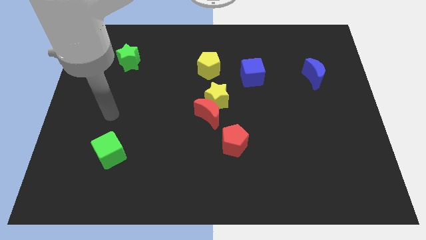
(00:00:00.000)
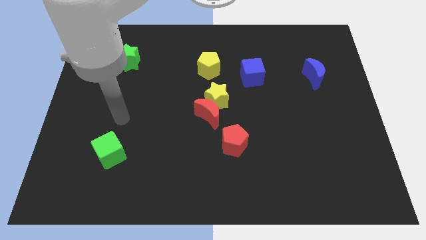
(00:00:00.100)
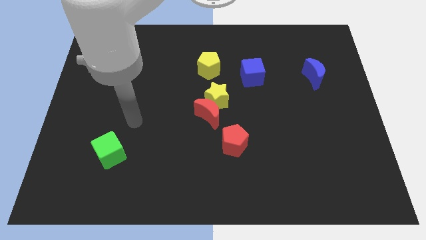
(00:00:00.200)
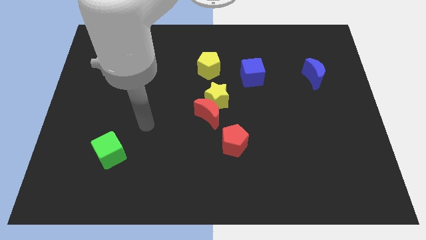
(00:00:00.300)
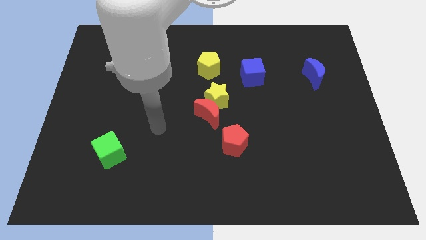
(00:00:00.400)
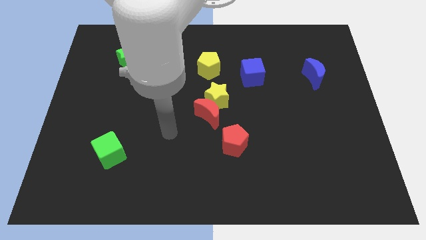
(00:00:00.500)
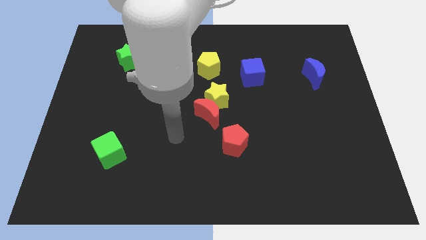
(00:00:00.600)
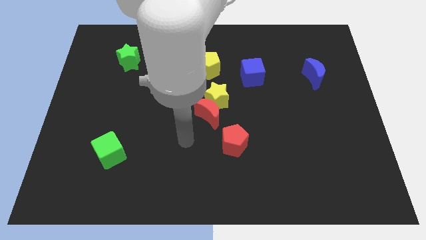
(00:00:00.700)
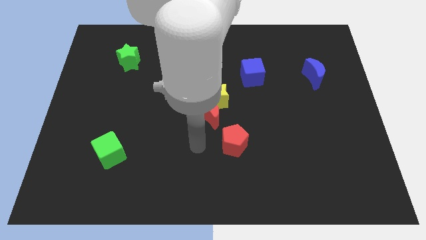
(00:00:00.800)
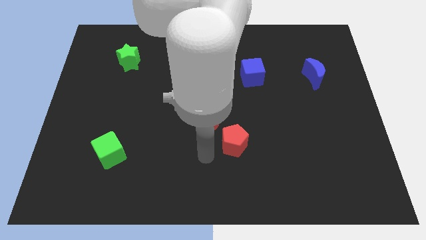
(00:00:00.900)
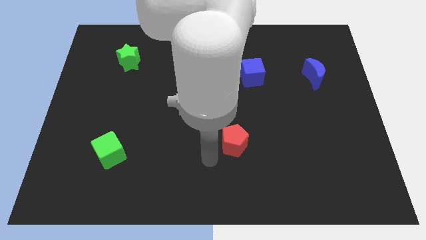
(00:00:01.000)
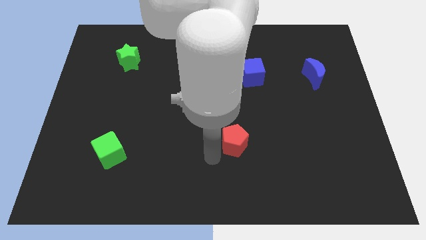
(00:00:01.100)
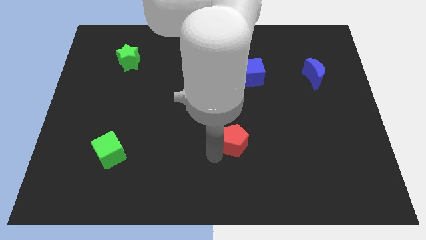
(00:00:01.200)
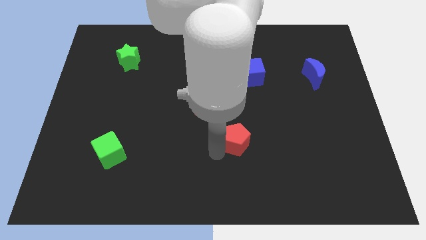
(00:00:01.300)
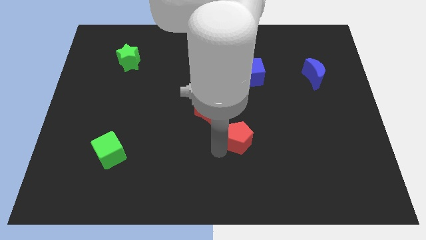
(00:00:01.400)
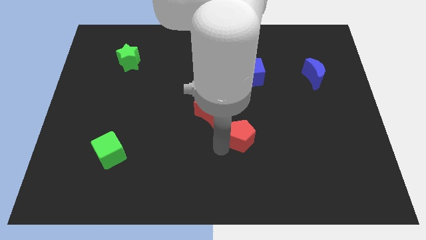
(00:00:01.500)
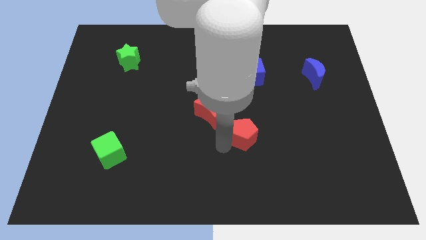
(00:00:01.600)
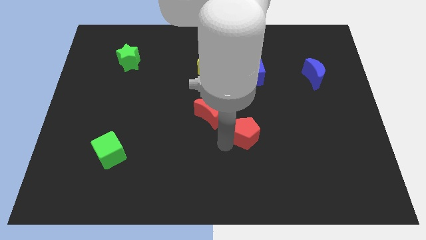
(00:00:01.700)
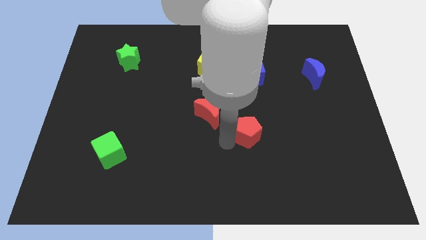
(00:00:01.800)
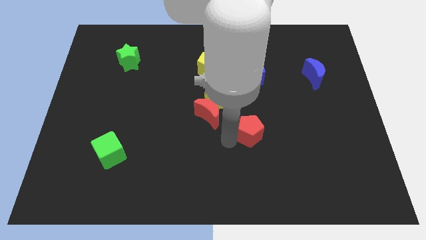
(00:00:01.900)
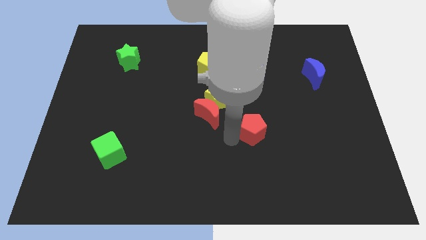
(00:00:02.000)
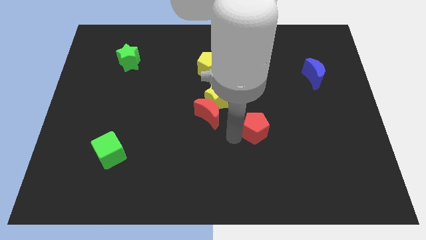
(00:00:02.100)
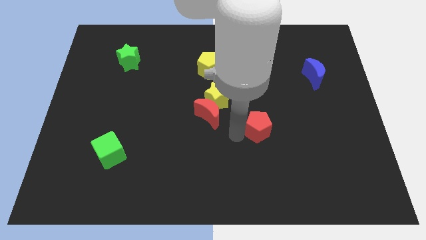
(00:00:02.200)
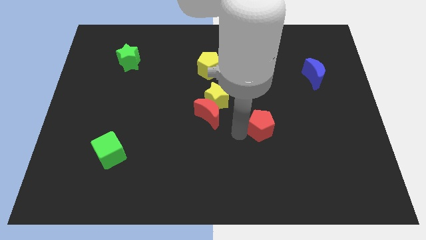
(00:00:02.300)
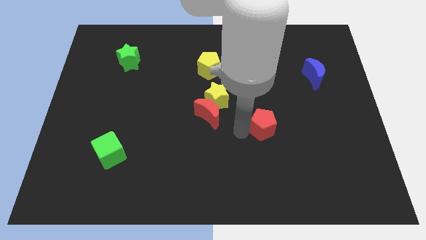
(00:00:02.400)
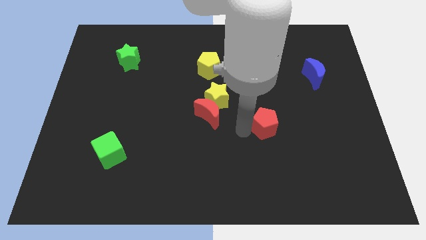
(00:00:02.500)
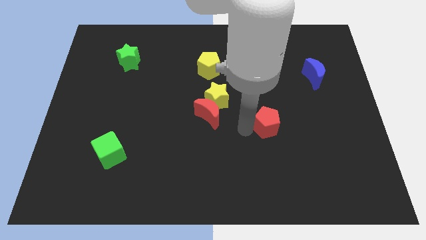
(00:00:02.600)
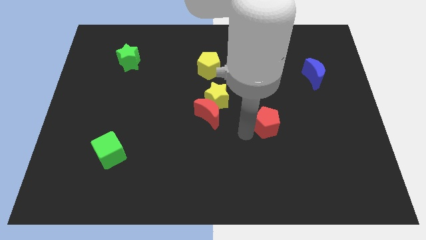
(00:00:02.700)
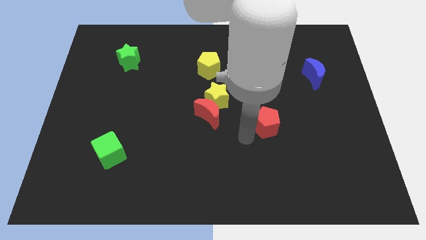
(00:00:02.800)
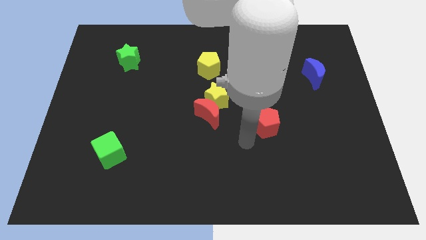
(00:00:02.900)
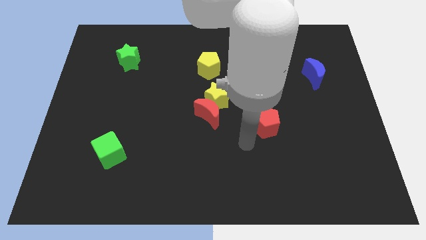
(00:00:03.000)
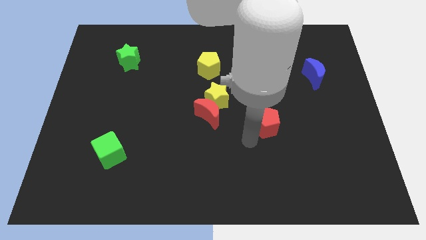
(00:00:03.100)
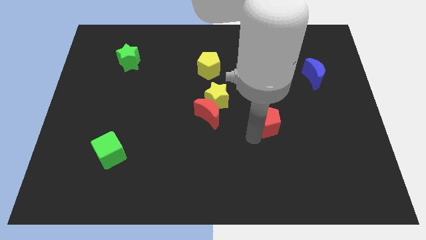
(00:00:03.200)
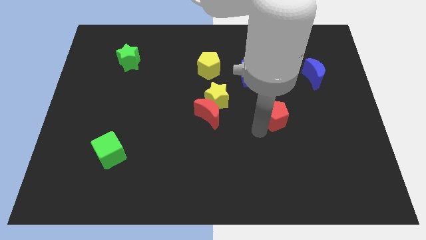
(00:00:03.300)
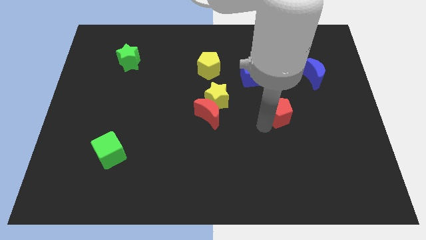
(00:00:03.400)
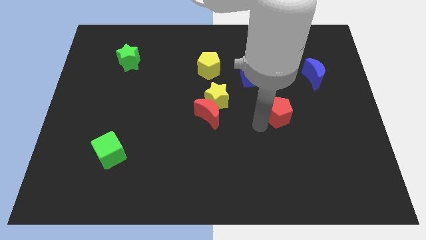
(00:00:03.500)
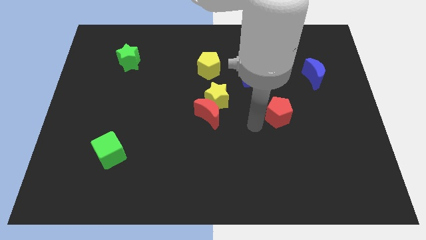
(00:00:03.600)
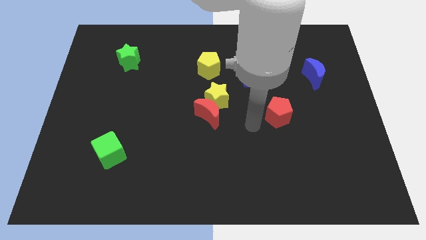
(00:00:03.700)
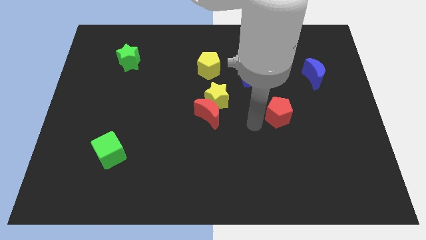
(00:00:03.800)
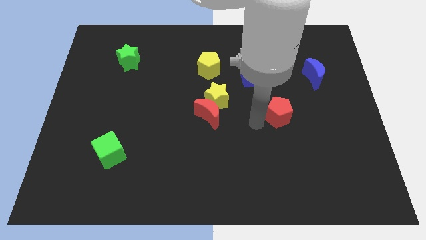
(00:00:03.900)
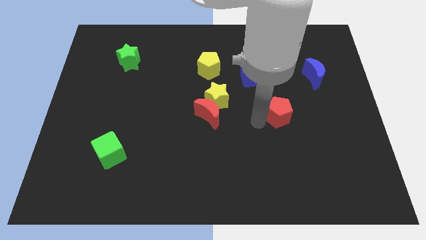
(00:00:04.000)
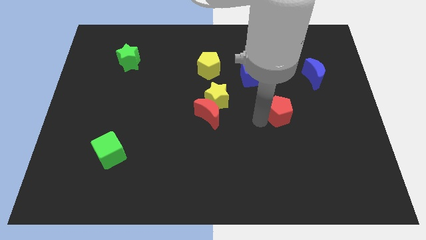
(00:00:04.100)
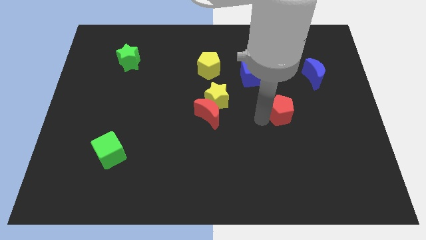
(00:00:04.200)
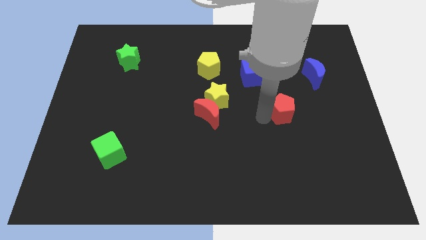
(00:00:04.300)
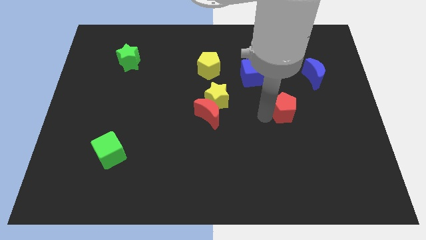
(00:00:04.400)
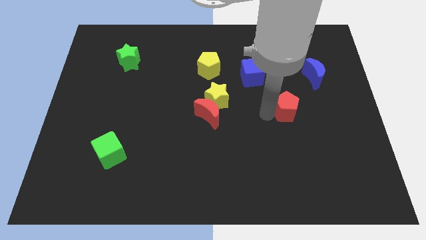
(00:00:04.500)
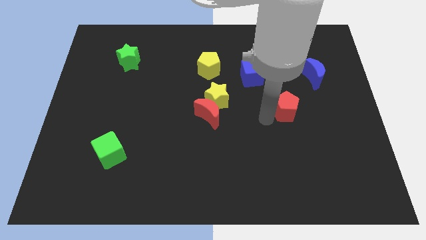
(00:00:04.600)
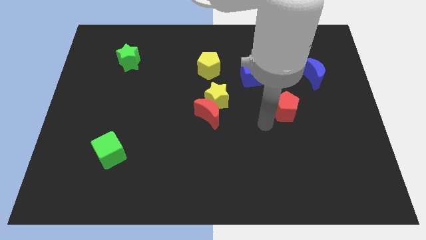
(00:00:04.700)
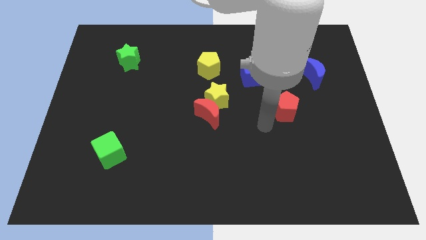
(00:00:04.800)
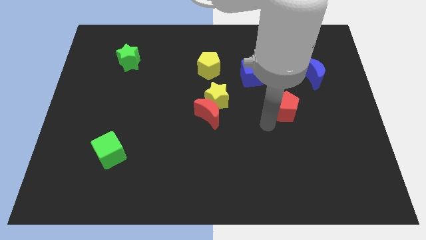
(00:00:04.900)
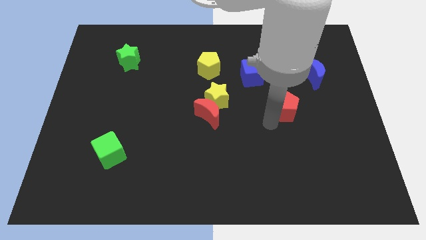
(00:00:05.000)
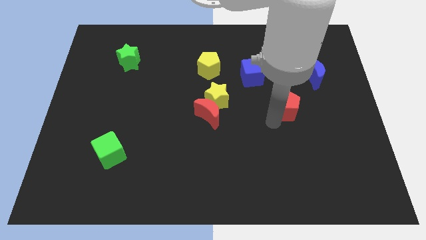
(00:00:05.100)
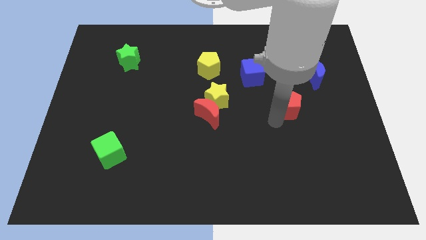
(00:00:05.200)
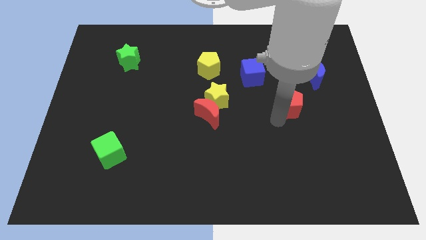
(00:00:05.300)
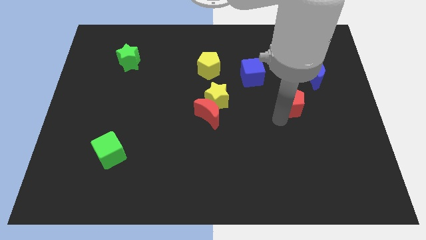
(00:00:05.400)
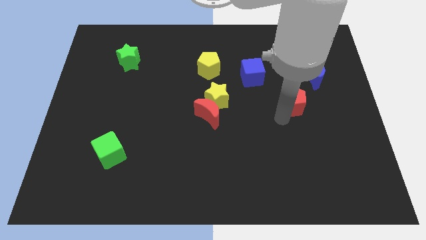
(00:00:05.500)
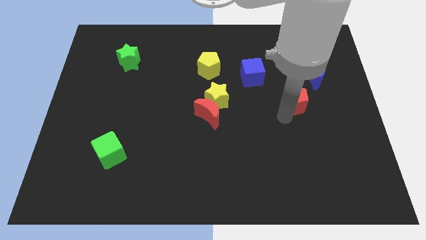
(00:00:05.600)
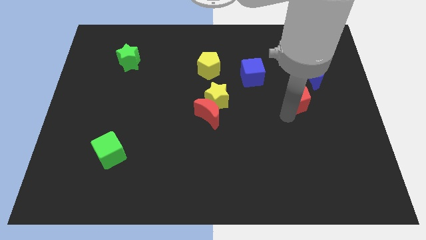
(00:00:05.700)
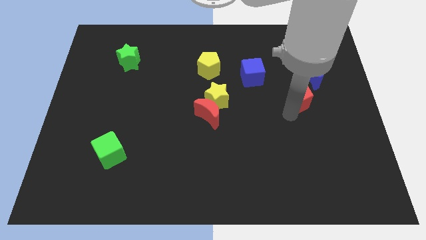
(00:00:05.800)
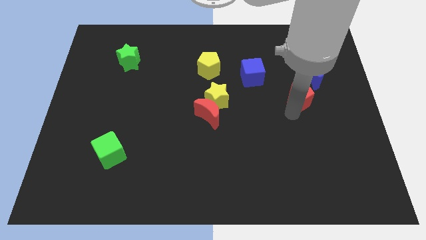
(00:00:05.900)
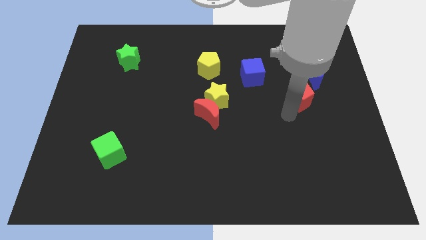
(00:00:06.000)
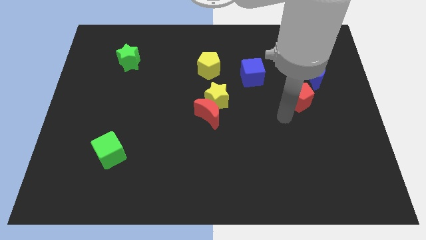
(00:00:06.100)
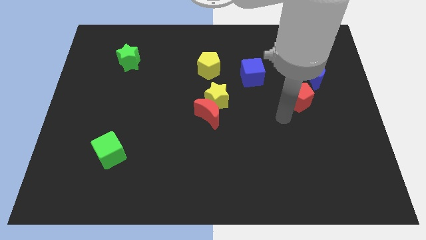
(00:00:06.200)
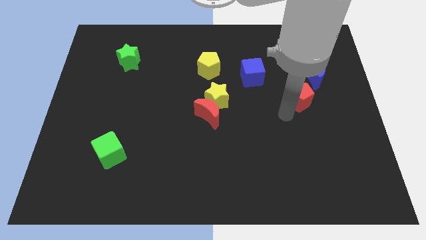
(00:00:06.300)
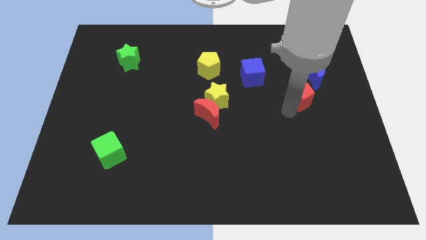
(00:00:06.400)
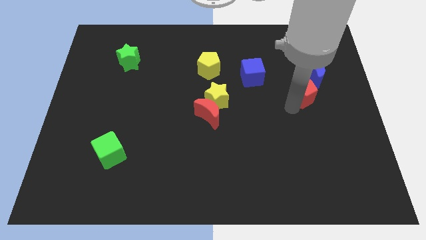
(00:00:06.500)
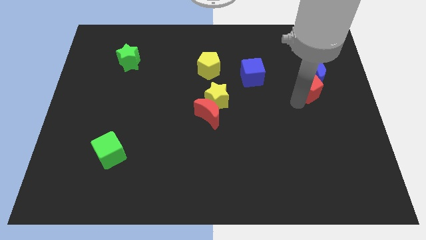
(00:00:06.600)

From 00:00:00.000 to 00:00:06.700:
slide the red pentagon towards the blue moon
